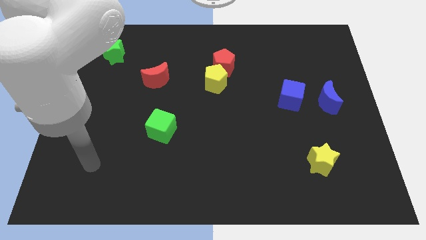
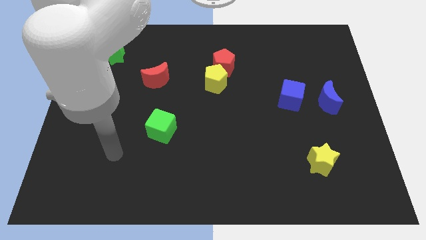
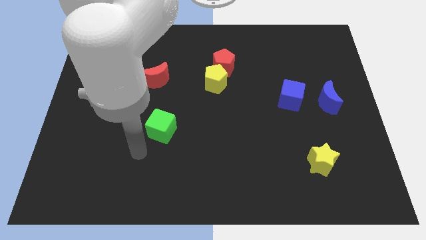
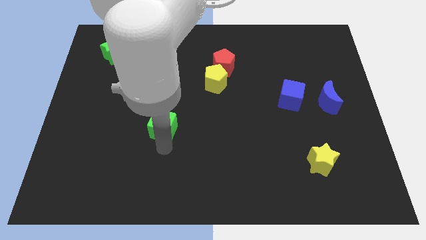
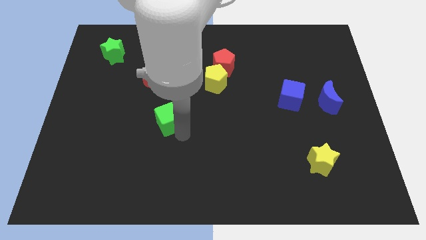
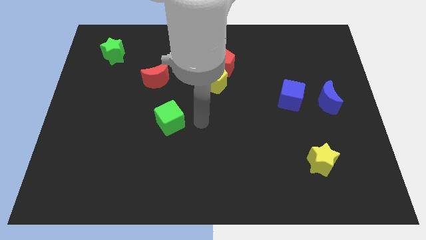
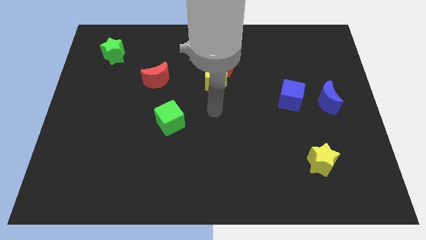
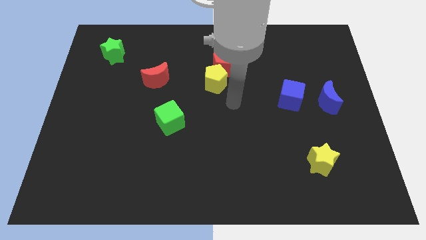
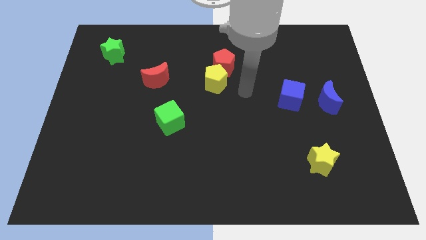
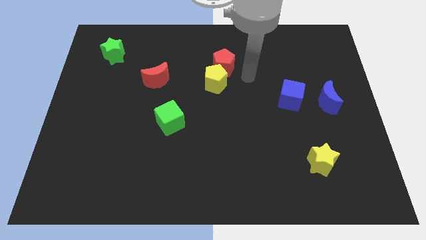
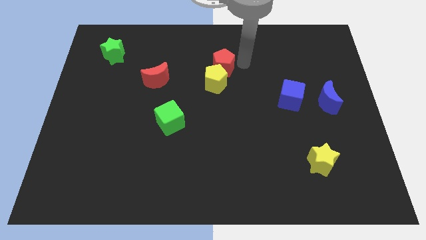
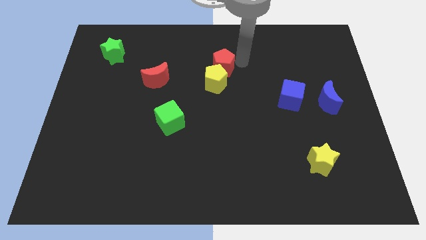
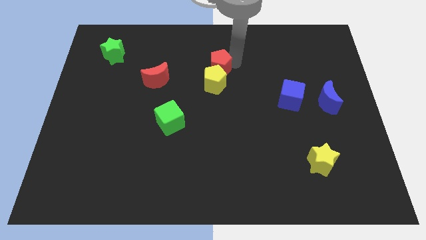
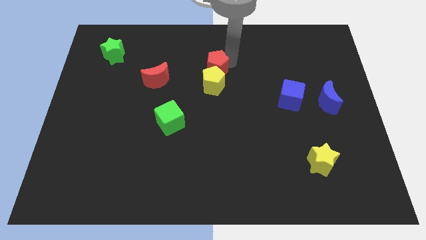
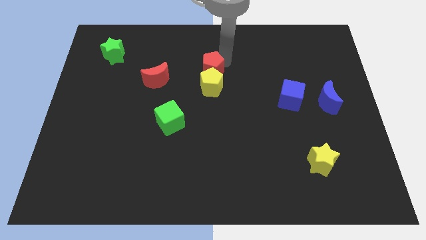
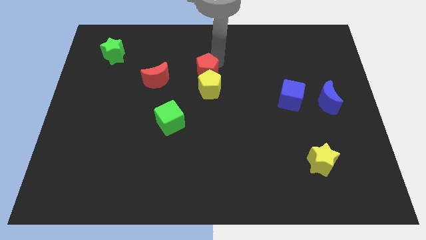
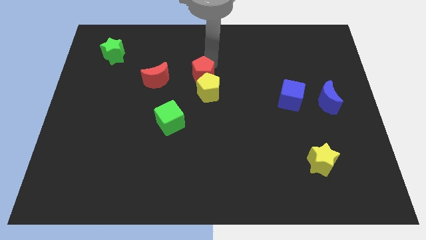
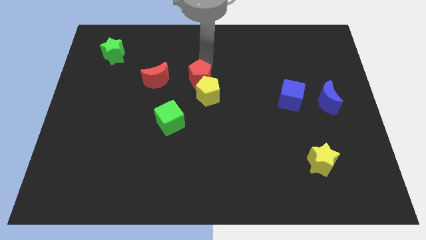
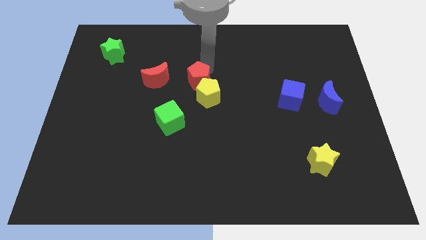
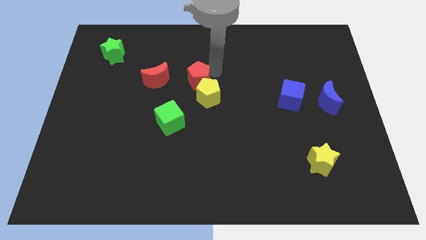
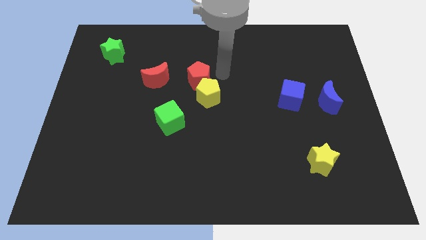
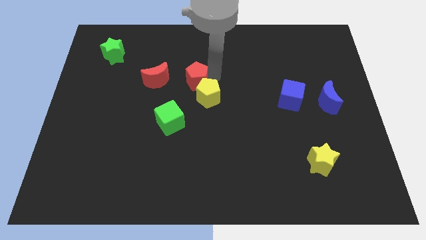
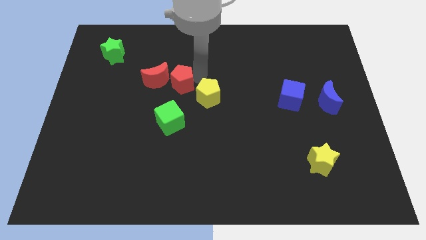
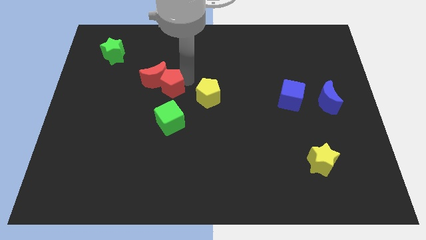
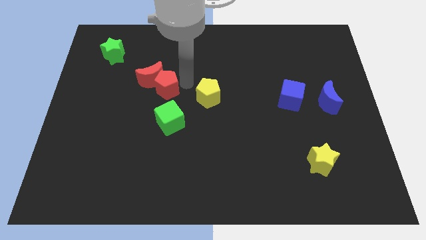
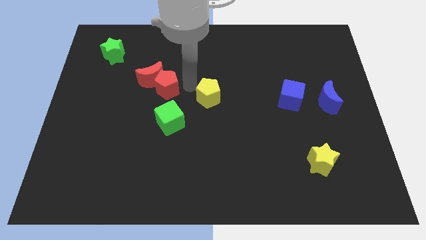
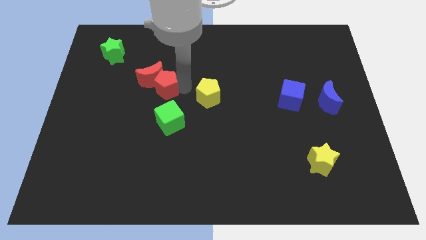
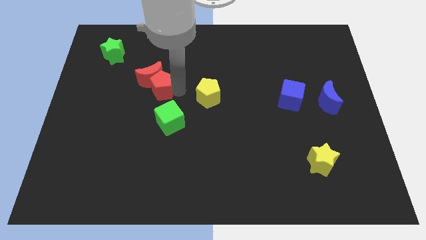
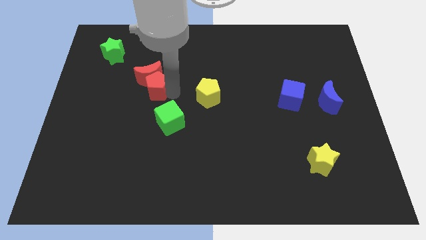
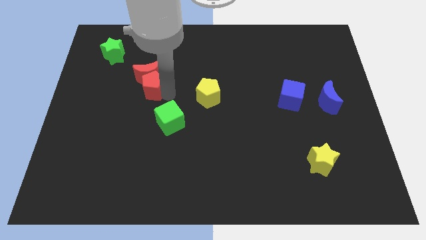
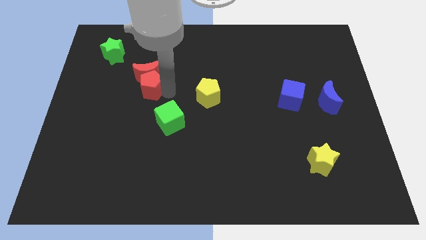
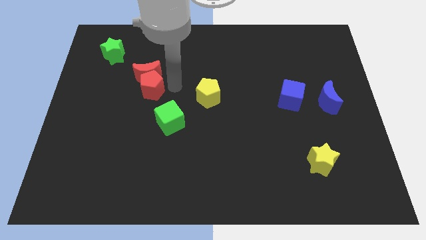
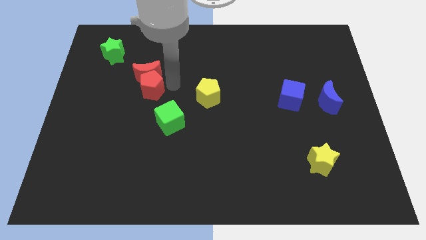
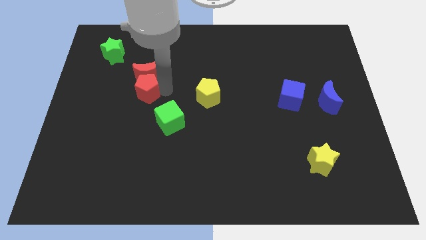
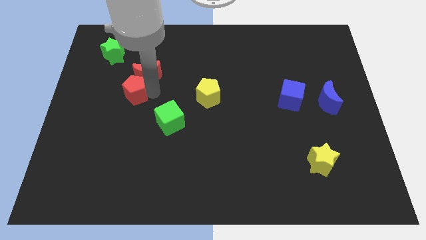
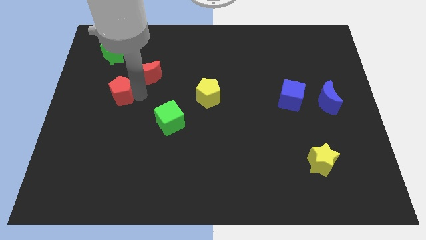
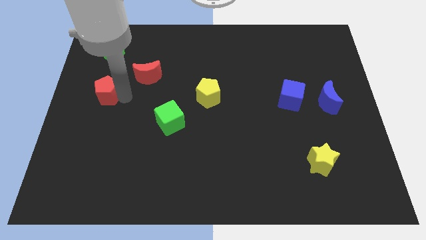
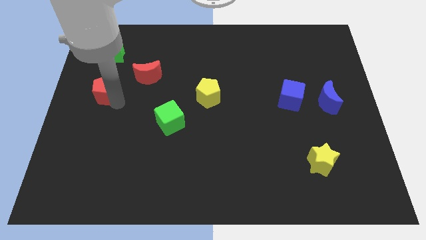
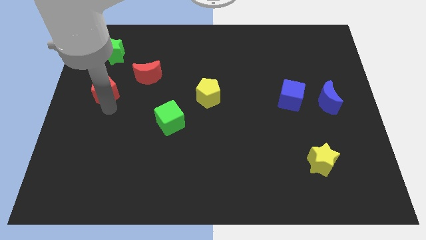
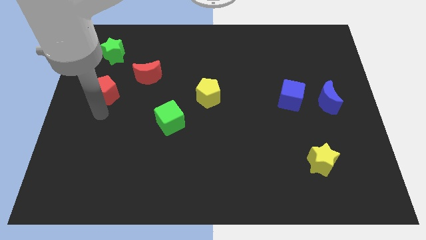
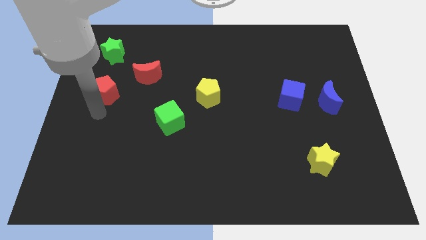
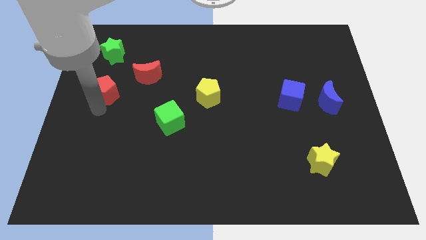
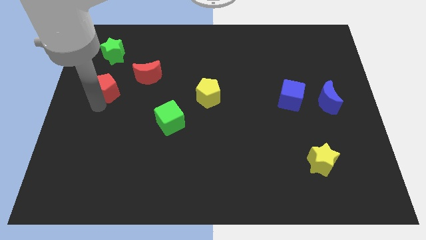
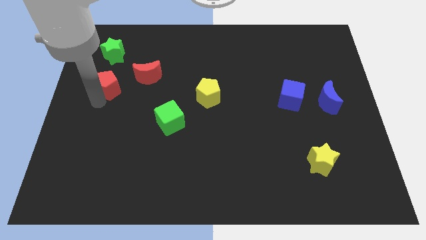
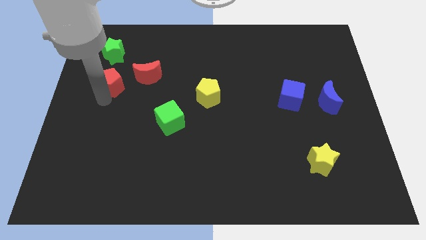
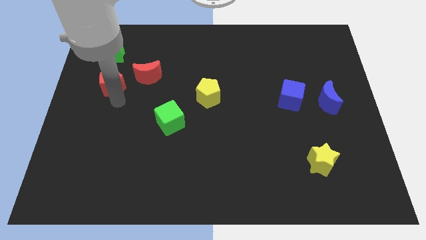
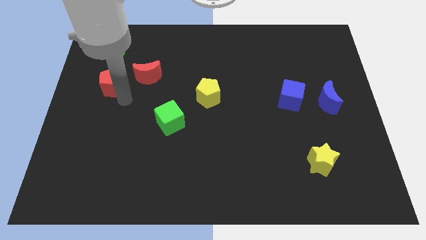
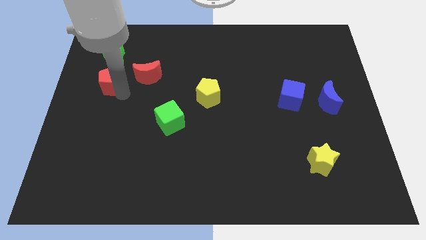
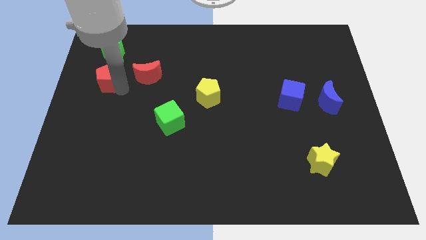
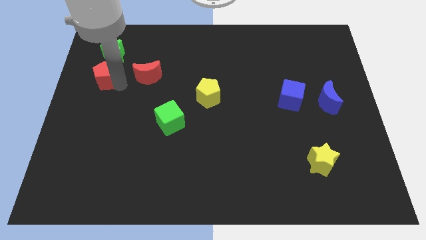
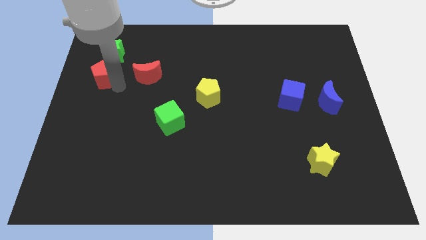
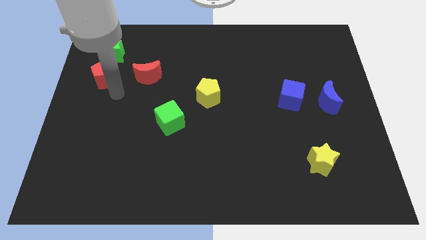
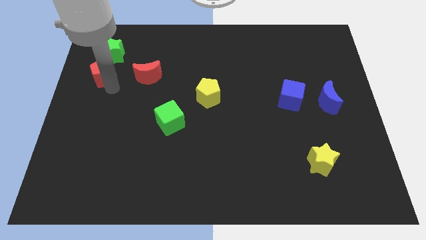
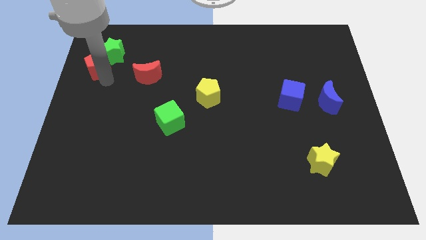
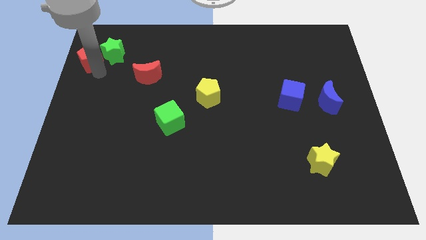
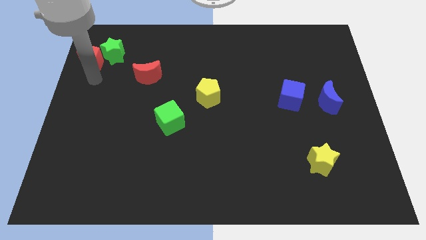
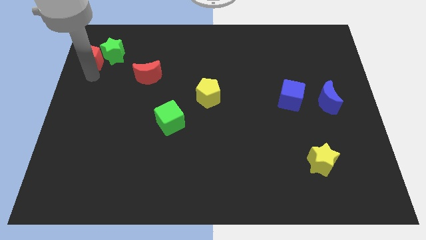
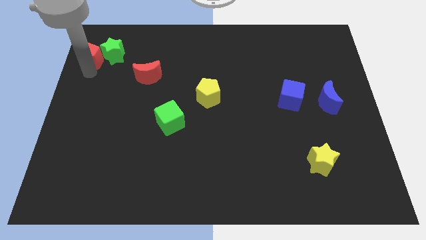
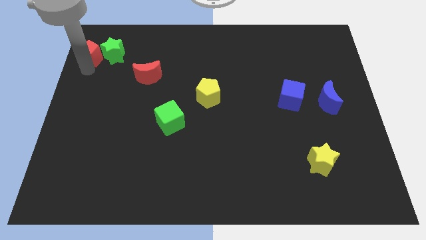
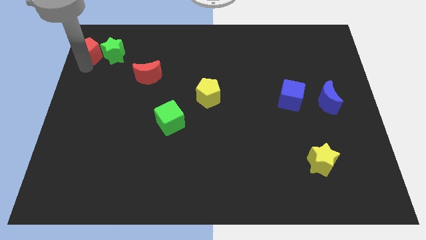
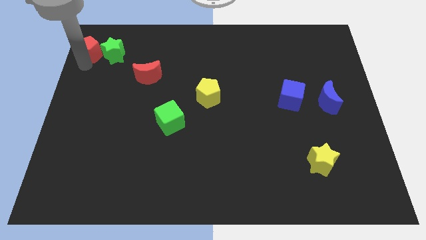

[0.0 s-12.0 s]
move the red pentagon to the top left corner
